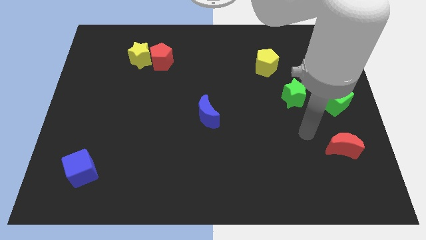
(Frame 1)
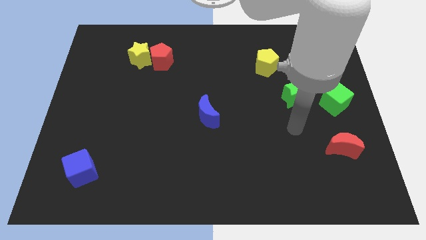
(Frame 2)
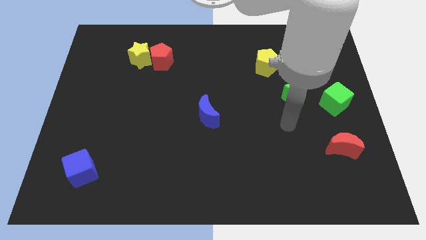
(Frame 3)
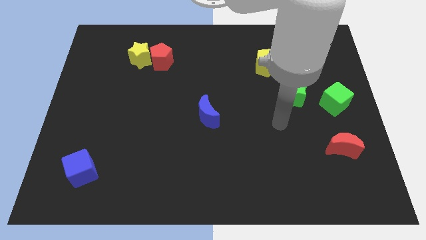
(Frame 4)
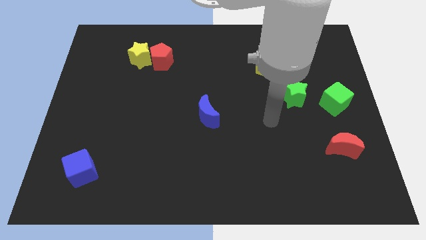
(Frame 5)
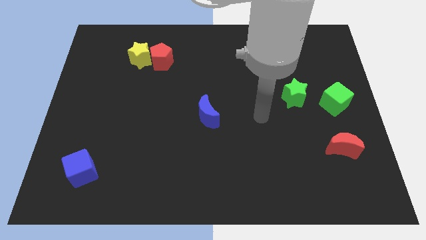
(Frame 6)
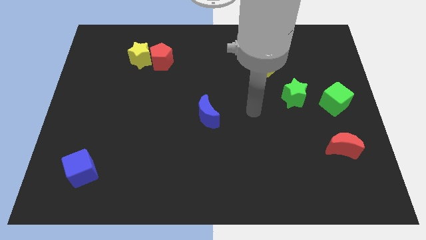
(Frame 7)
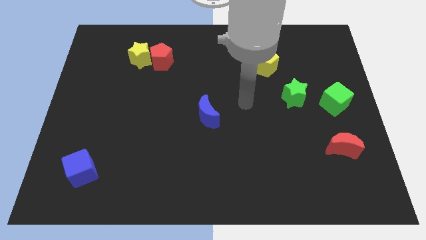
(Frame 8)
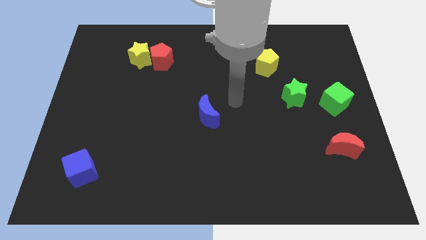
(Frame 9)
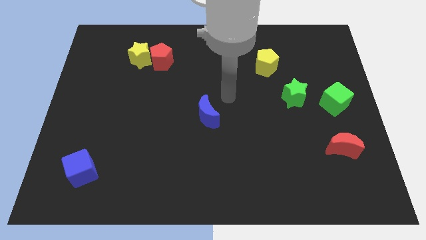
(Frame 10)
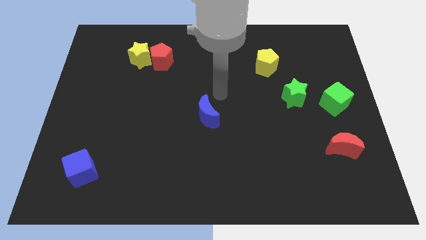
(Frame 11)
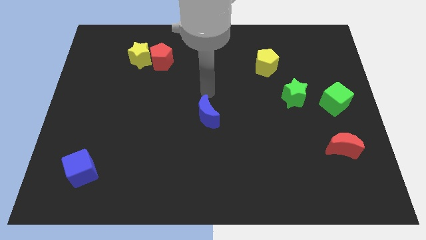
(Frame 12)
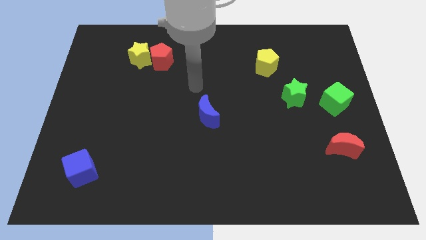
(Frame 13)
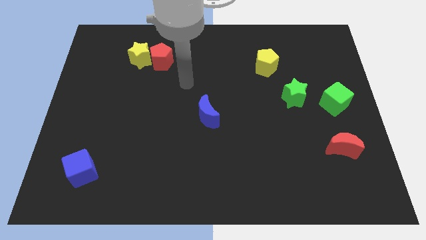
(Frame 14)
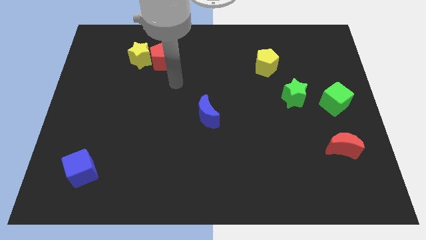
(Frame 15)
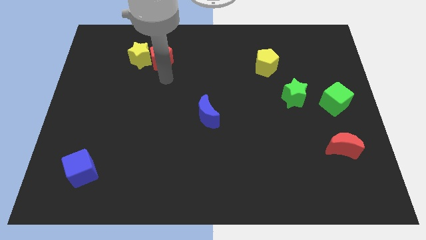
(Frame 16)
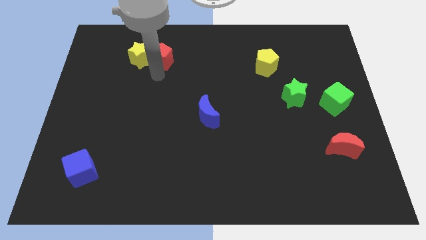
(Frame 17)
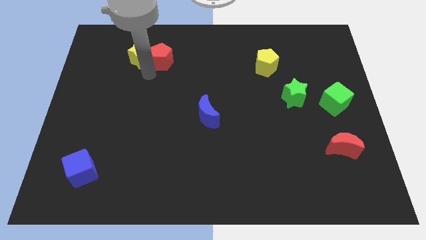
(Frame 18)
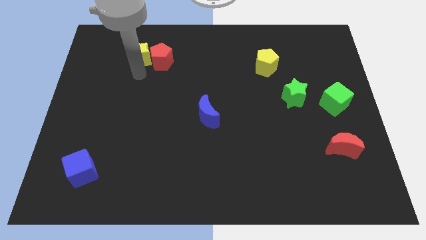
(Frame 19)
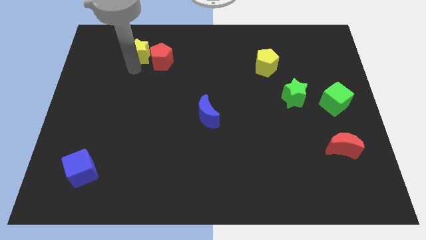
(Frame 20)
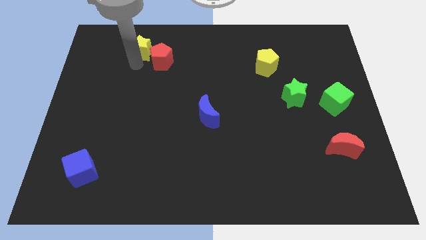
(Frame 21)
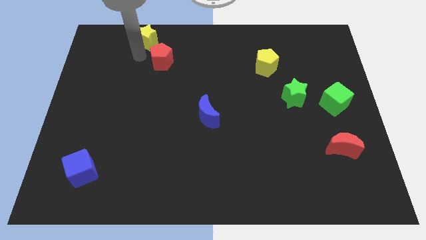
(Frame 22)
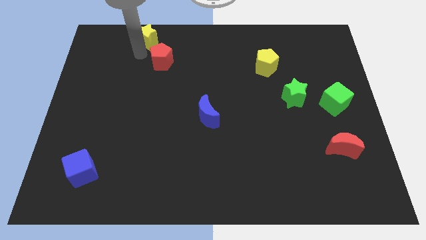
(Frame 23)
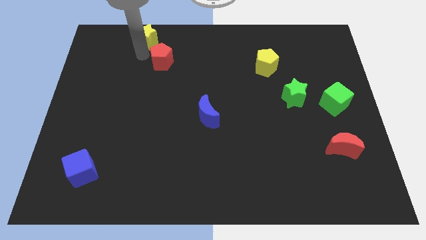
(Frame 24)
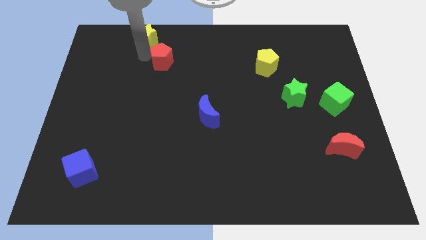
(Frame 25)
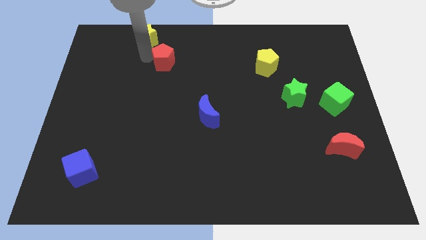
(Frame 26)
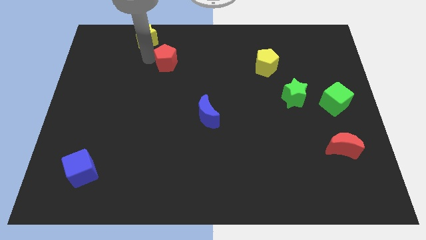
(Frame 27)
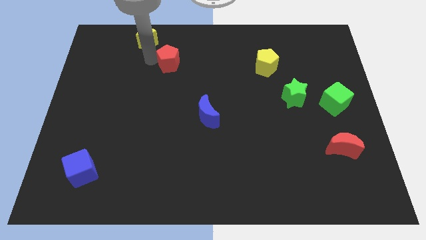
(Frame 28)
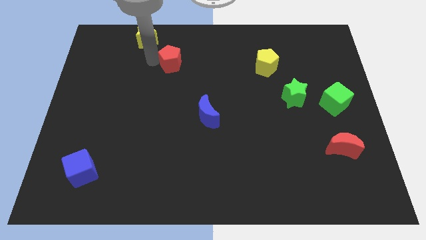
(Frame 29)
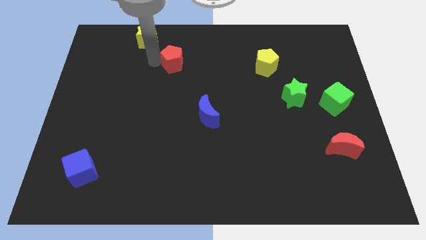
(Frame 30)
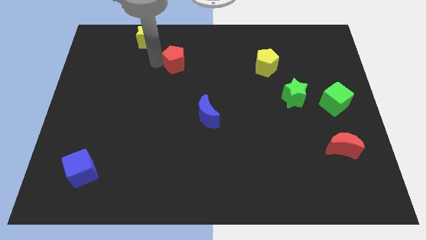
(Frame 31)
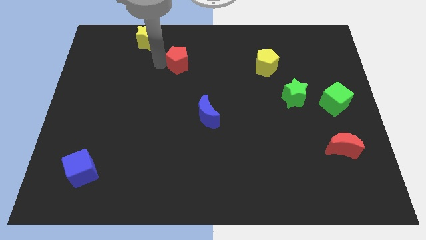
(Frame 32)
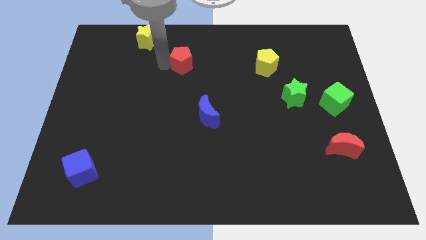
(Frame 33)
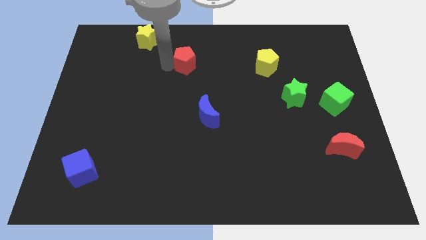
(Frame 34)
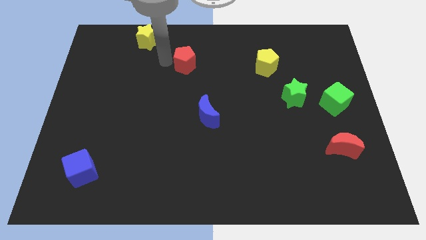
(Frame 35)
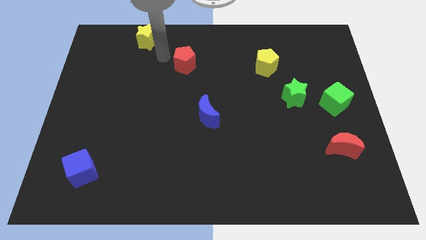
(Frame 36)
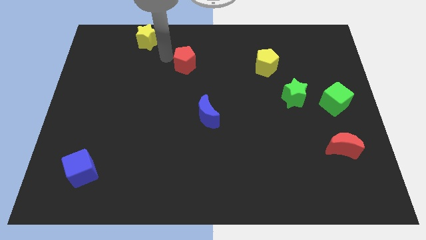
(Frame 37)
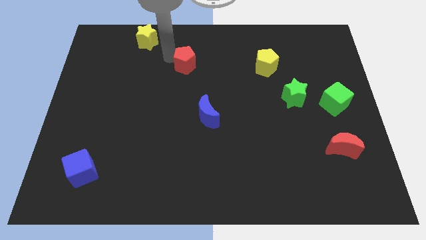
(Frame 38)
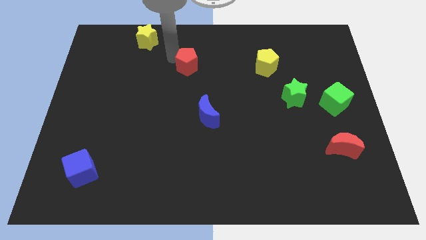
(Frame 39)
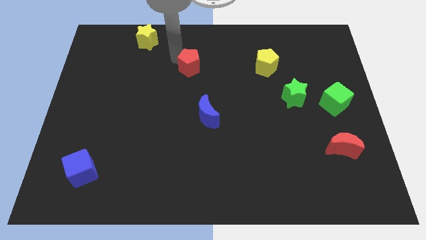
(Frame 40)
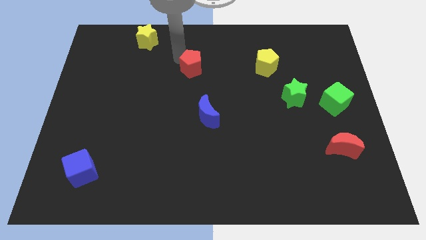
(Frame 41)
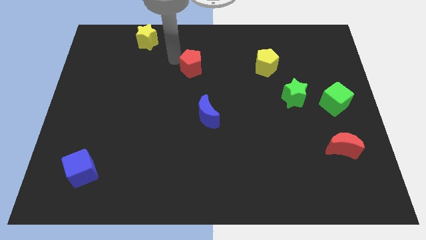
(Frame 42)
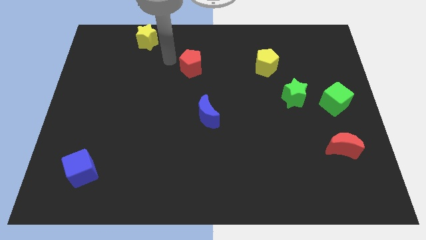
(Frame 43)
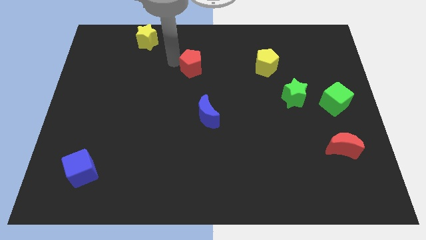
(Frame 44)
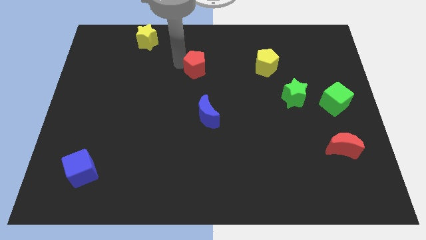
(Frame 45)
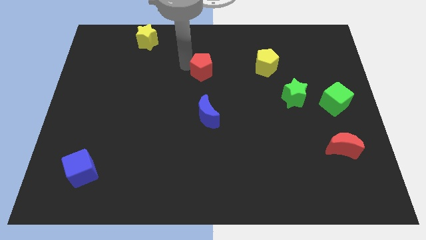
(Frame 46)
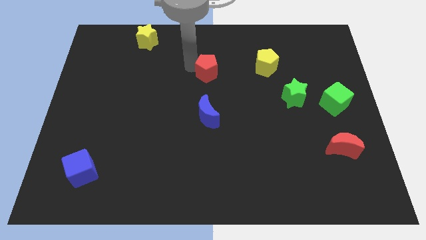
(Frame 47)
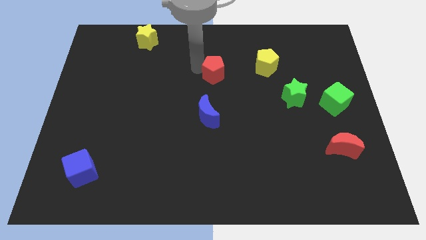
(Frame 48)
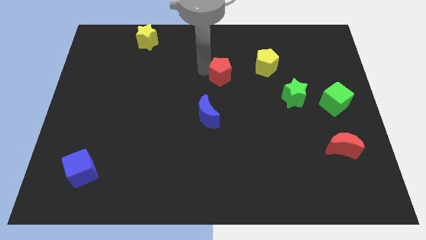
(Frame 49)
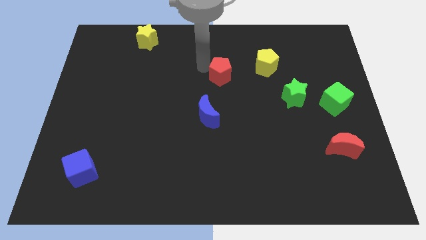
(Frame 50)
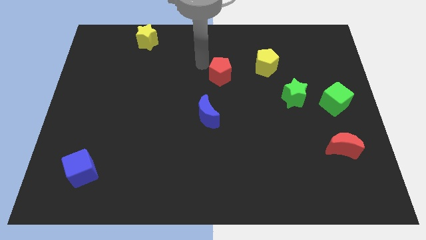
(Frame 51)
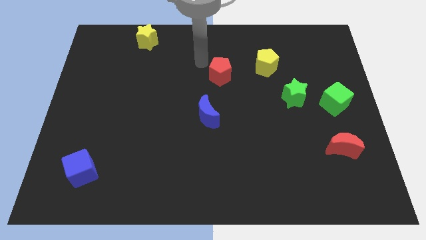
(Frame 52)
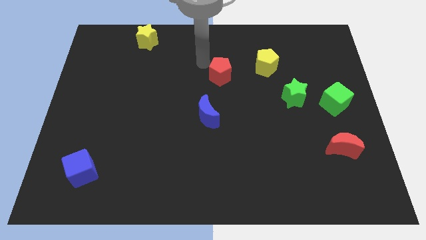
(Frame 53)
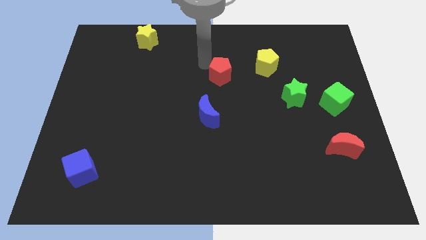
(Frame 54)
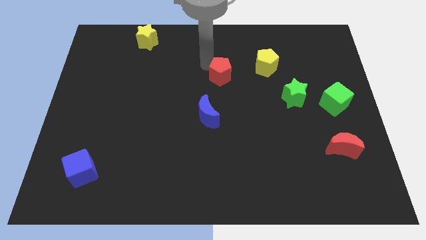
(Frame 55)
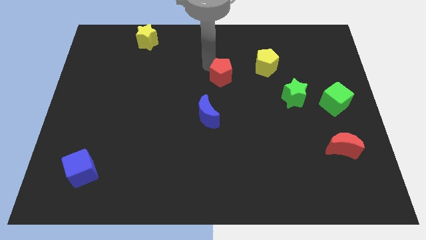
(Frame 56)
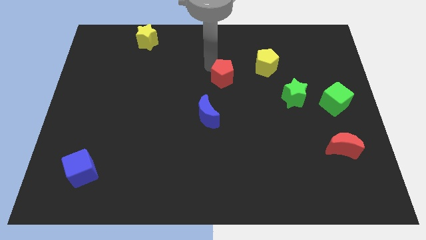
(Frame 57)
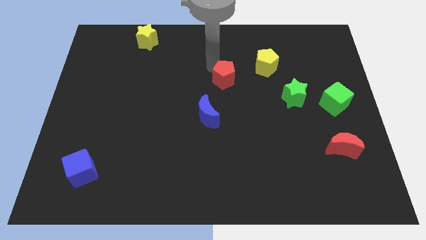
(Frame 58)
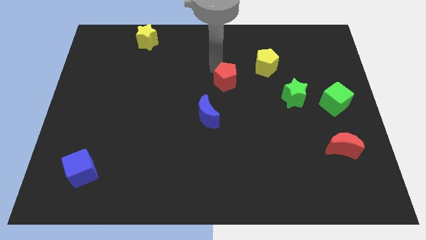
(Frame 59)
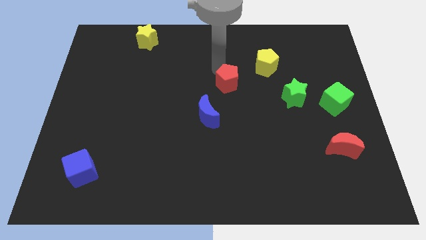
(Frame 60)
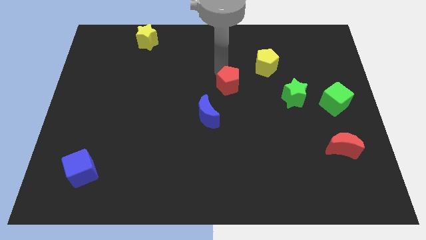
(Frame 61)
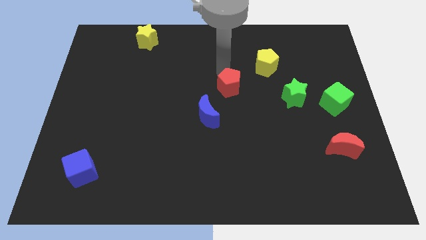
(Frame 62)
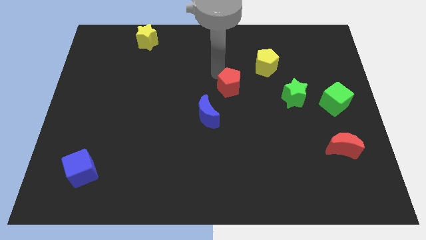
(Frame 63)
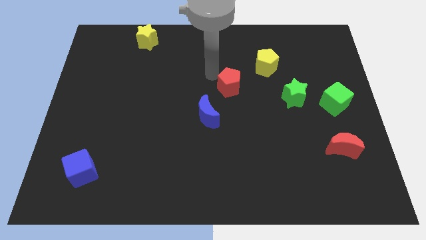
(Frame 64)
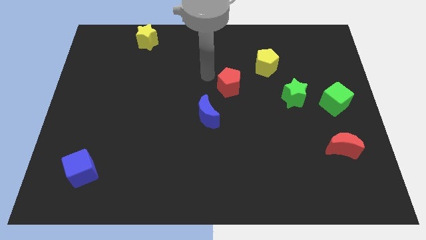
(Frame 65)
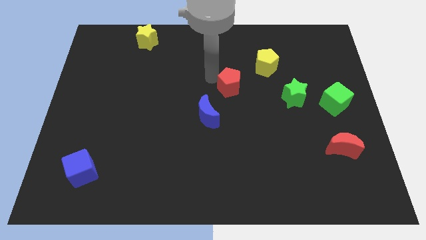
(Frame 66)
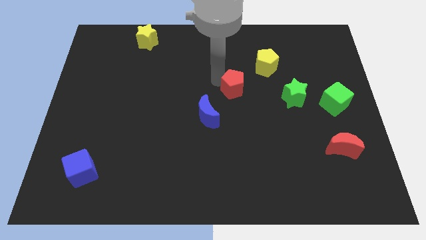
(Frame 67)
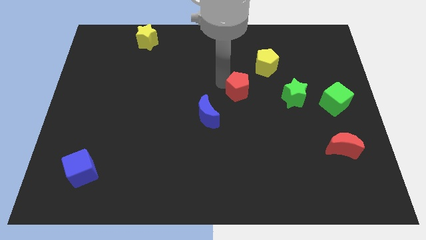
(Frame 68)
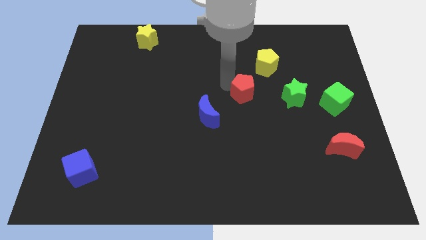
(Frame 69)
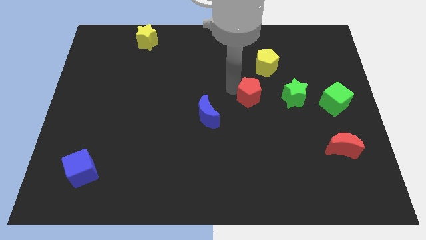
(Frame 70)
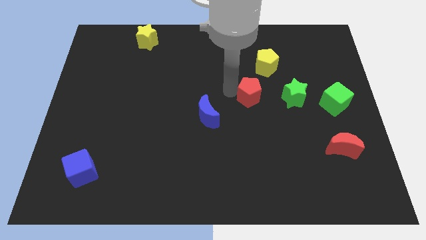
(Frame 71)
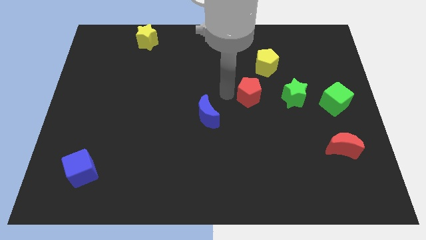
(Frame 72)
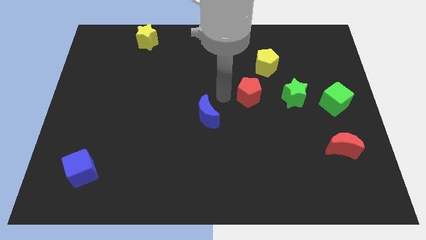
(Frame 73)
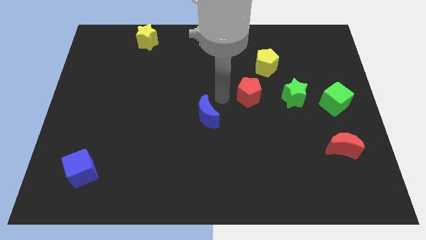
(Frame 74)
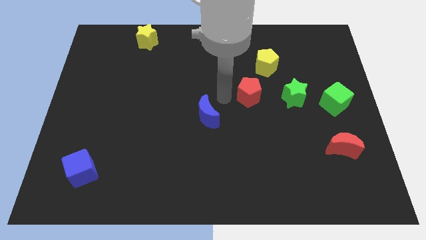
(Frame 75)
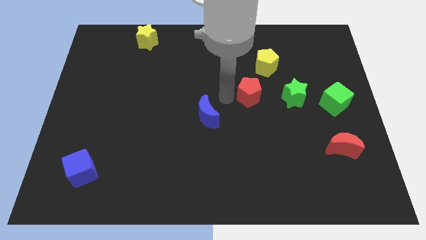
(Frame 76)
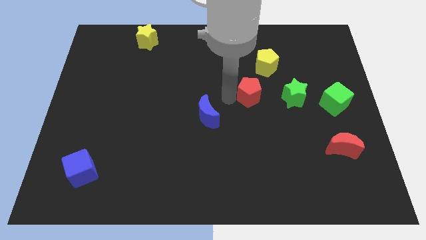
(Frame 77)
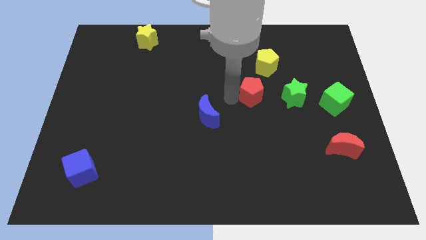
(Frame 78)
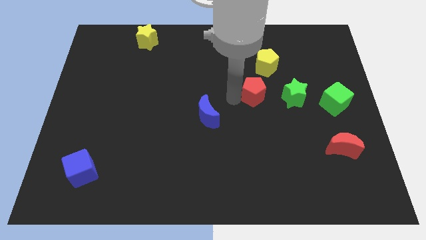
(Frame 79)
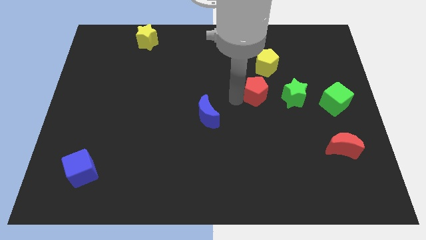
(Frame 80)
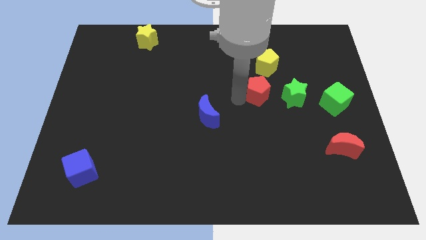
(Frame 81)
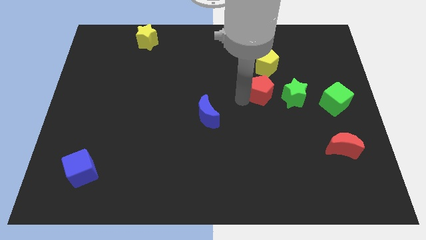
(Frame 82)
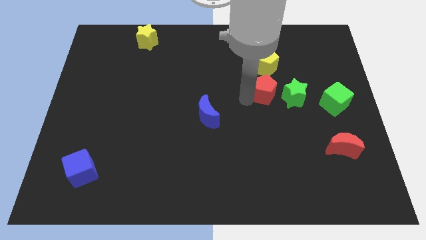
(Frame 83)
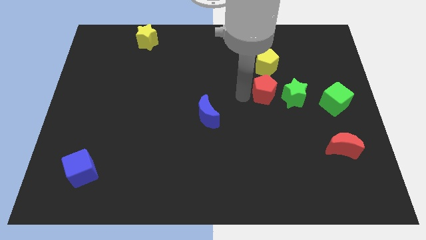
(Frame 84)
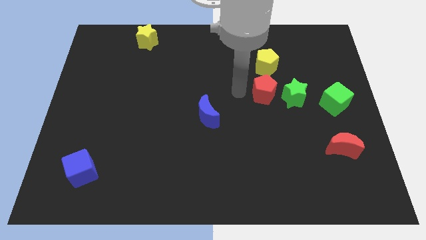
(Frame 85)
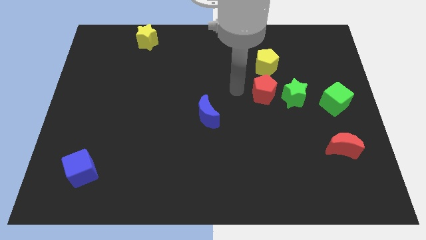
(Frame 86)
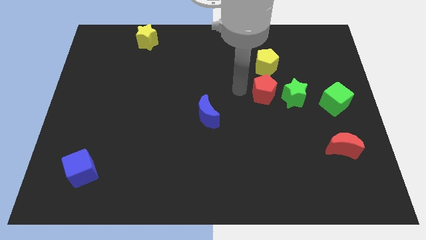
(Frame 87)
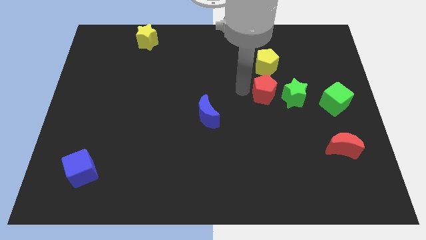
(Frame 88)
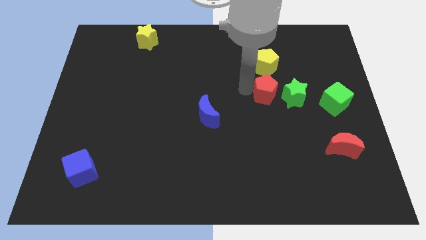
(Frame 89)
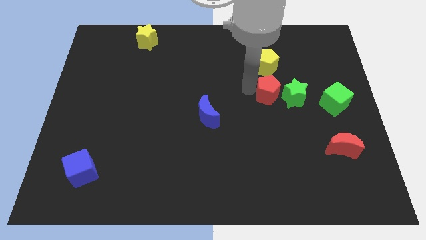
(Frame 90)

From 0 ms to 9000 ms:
slide the red pentagon next to the green star
